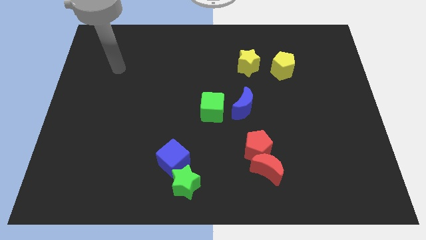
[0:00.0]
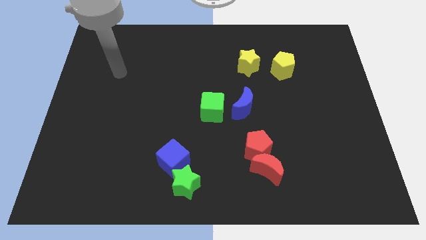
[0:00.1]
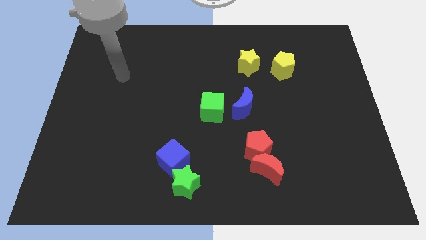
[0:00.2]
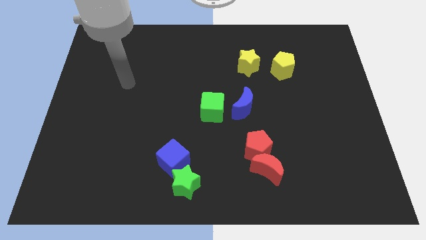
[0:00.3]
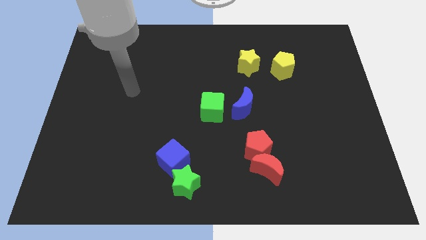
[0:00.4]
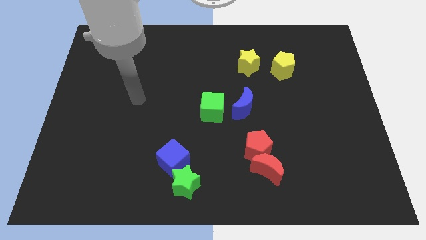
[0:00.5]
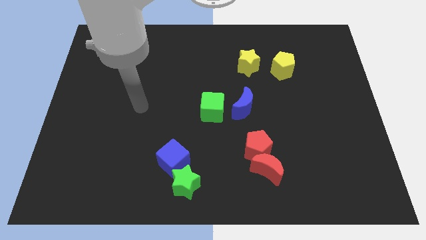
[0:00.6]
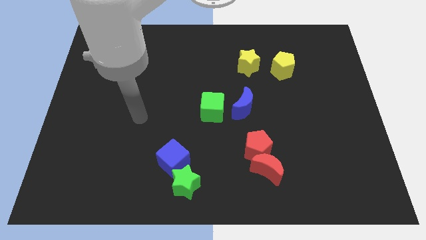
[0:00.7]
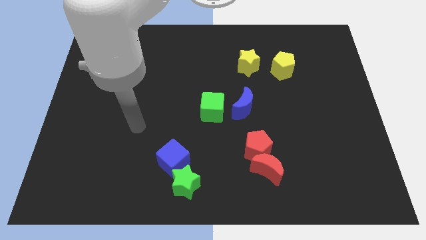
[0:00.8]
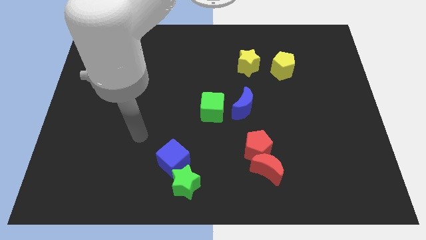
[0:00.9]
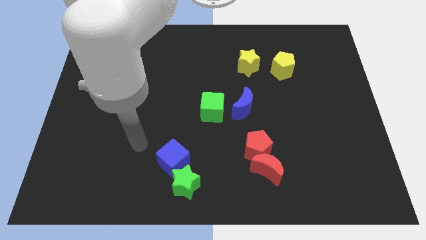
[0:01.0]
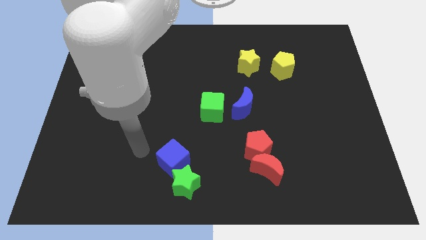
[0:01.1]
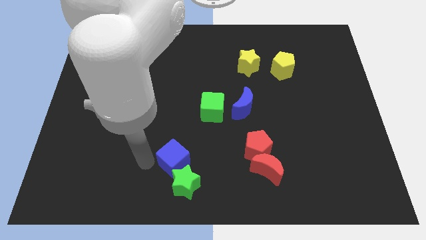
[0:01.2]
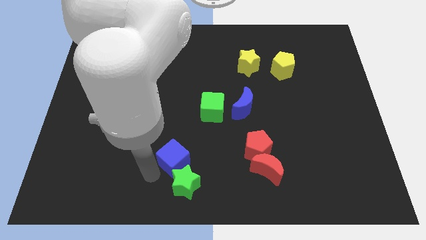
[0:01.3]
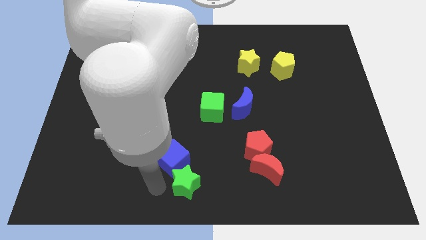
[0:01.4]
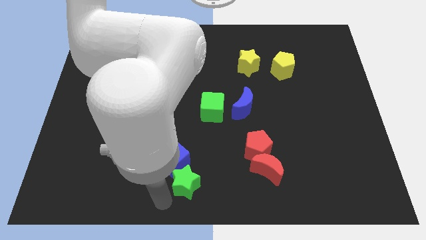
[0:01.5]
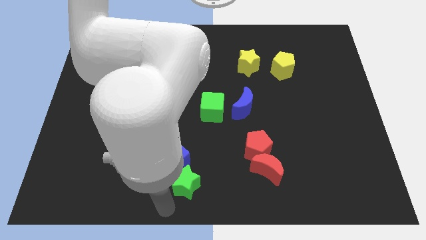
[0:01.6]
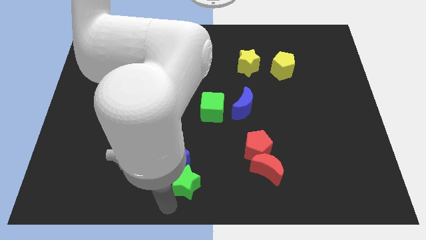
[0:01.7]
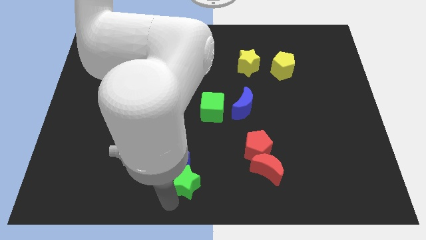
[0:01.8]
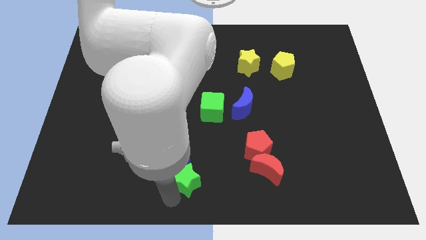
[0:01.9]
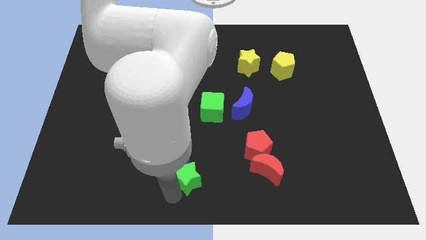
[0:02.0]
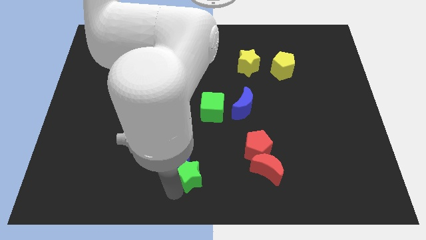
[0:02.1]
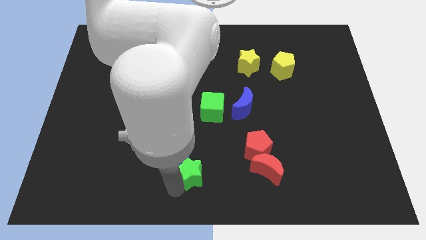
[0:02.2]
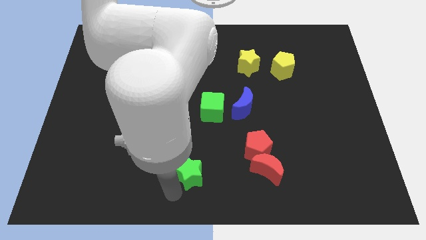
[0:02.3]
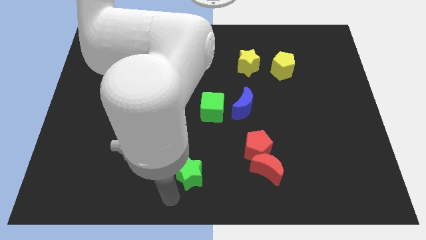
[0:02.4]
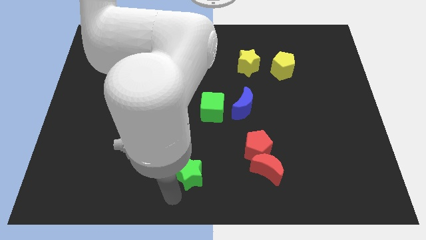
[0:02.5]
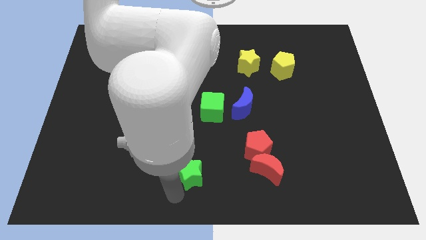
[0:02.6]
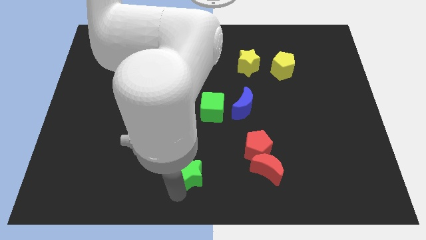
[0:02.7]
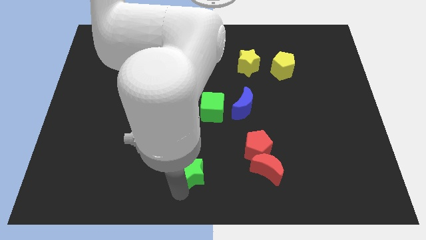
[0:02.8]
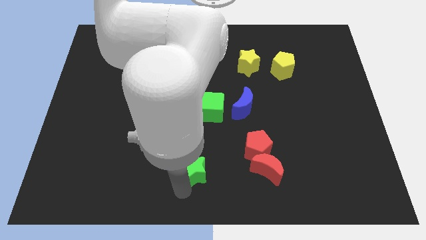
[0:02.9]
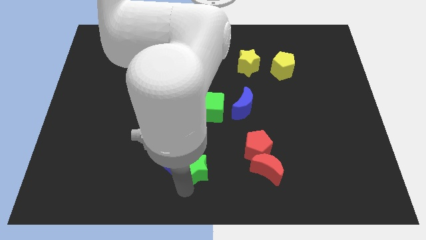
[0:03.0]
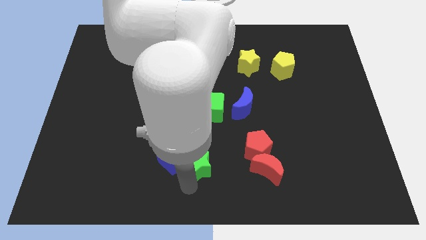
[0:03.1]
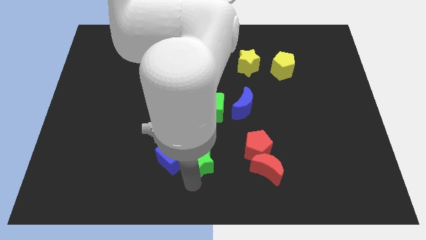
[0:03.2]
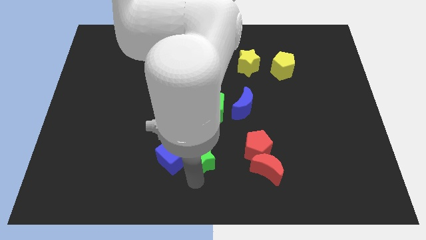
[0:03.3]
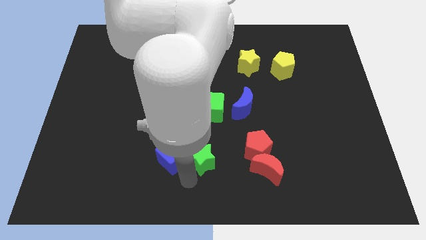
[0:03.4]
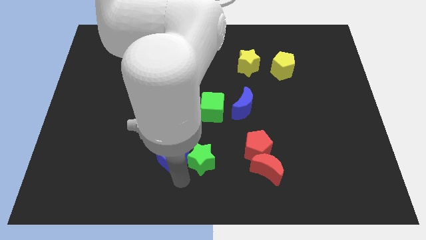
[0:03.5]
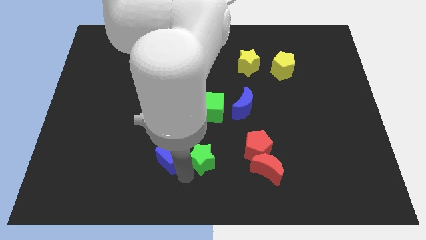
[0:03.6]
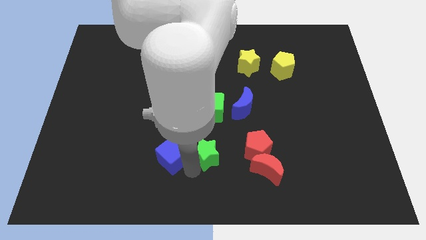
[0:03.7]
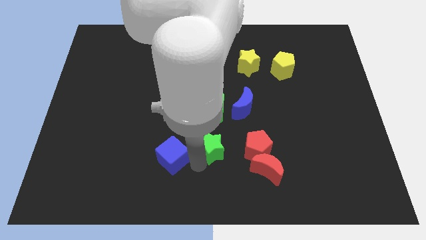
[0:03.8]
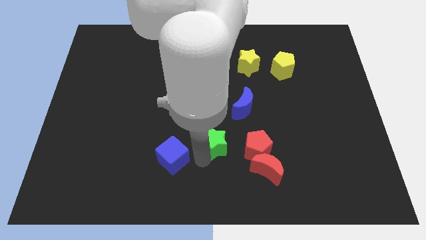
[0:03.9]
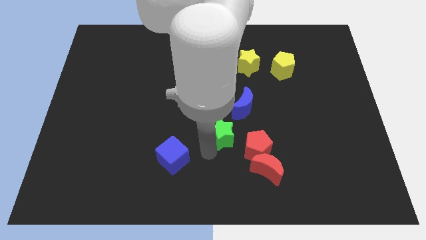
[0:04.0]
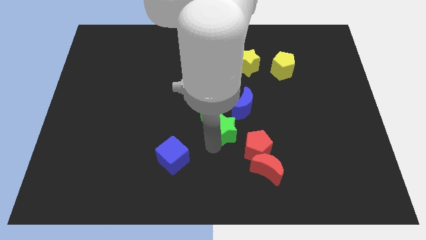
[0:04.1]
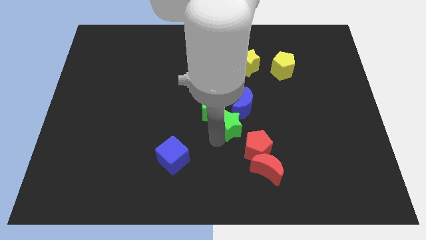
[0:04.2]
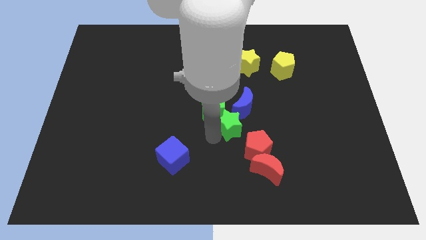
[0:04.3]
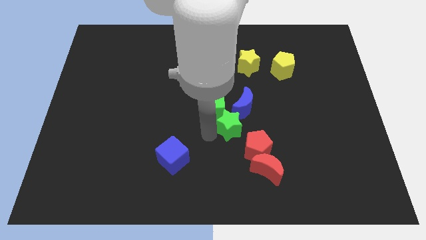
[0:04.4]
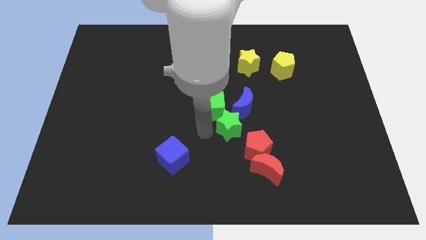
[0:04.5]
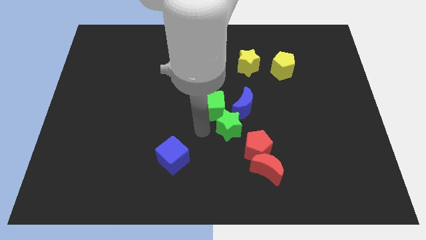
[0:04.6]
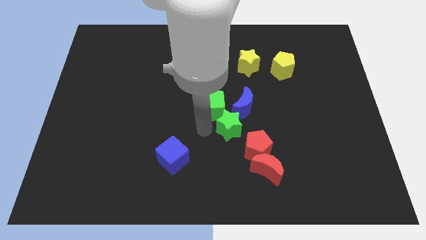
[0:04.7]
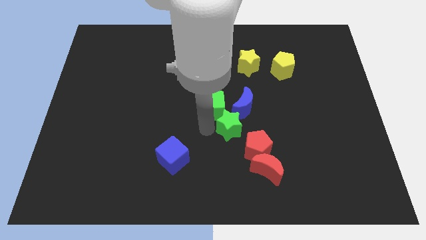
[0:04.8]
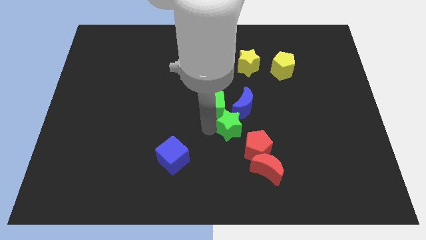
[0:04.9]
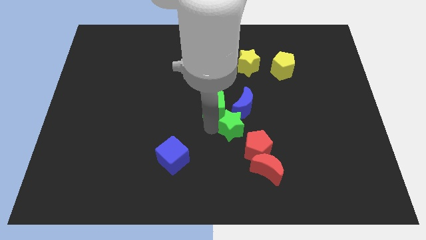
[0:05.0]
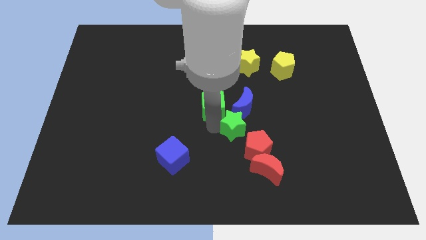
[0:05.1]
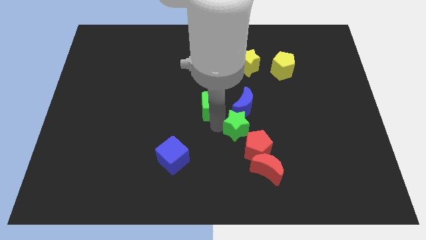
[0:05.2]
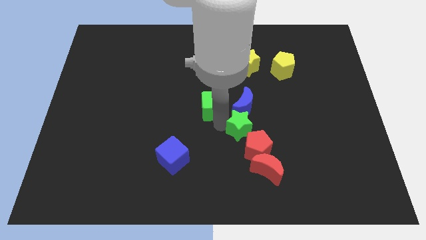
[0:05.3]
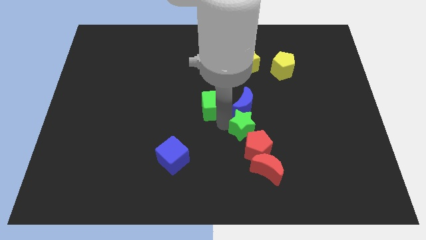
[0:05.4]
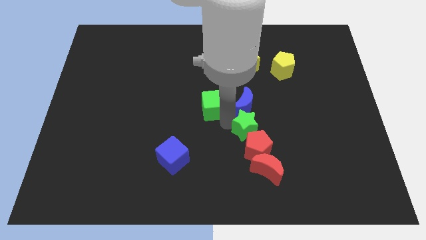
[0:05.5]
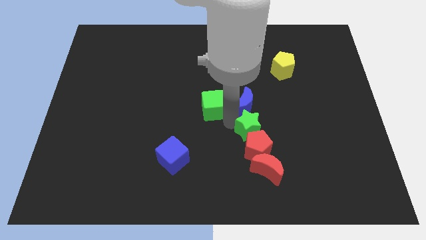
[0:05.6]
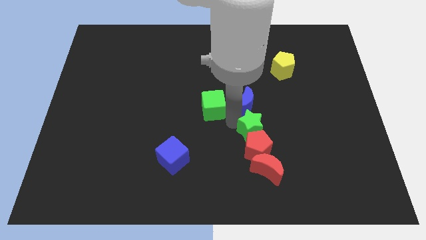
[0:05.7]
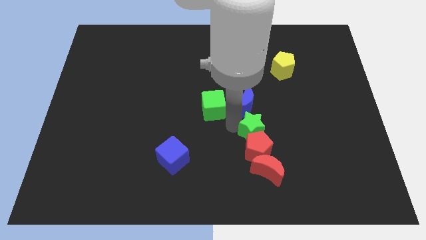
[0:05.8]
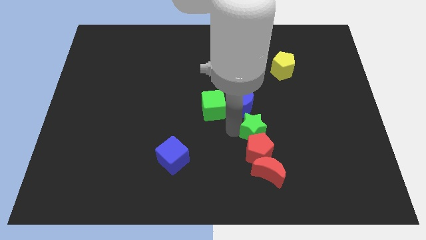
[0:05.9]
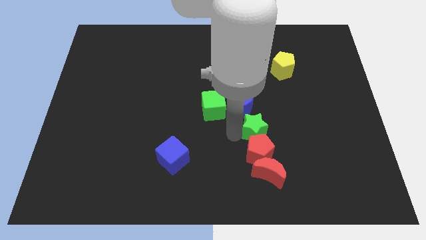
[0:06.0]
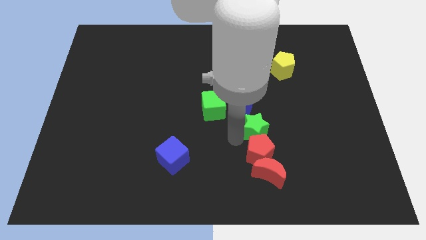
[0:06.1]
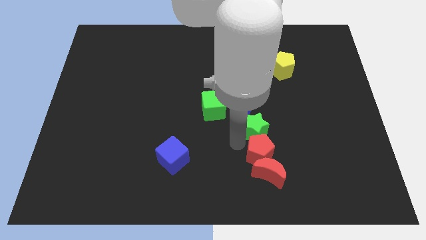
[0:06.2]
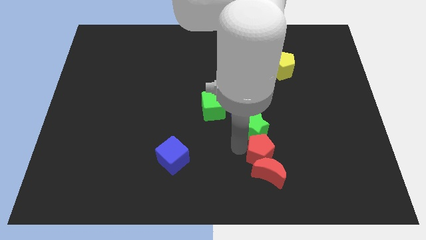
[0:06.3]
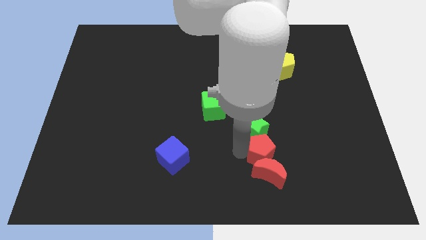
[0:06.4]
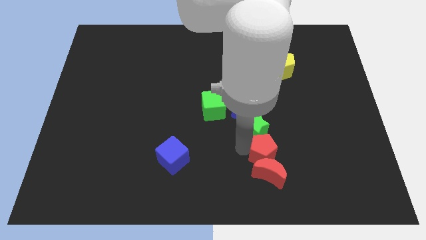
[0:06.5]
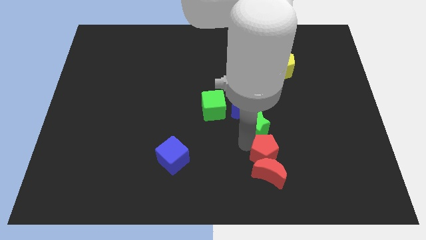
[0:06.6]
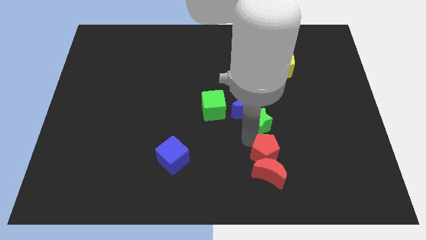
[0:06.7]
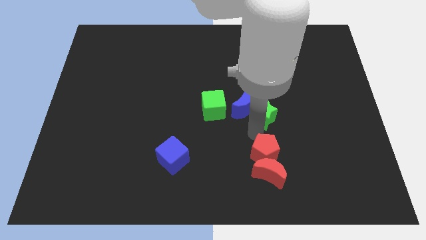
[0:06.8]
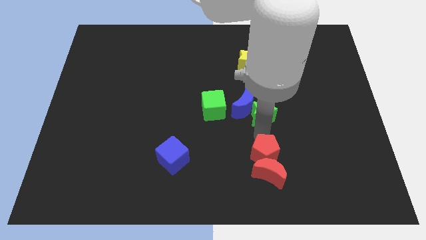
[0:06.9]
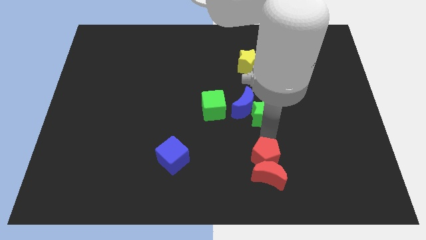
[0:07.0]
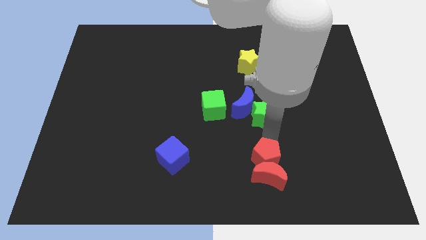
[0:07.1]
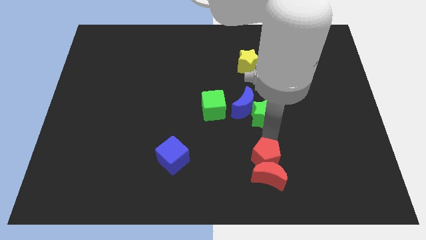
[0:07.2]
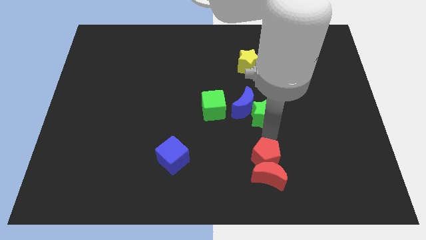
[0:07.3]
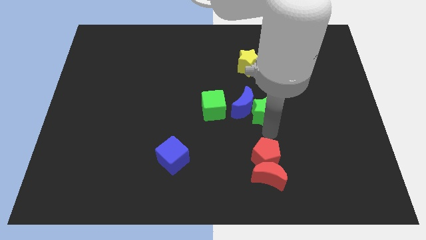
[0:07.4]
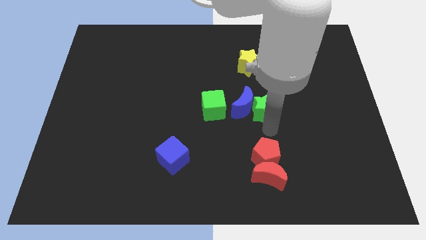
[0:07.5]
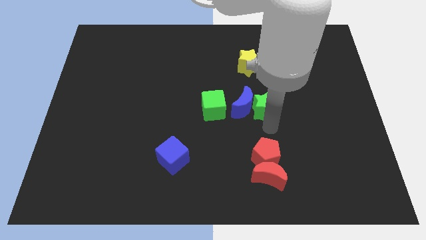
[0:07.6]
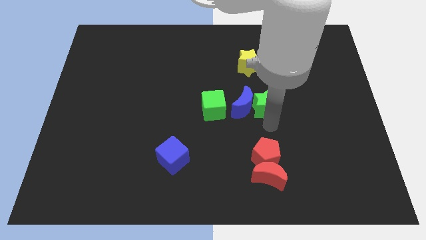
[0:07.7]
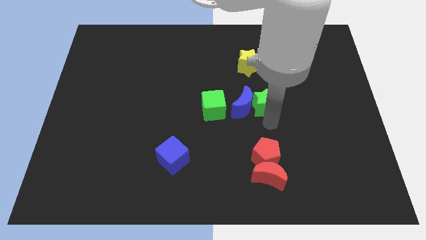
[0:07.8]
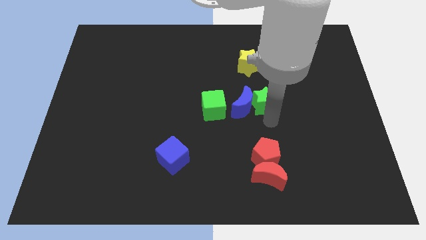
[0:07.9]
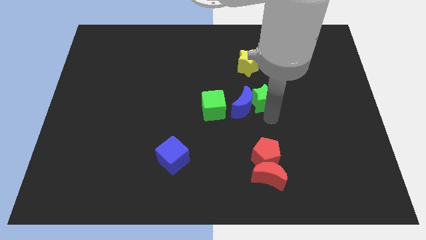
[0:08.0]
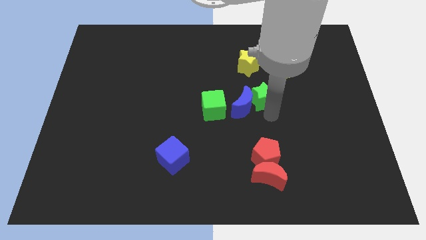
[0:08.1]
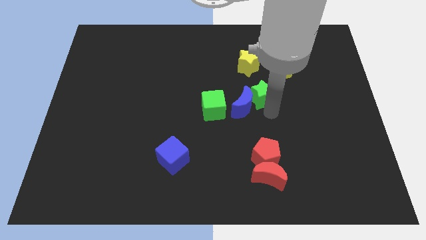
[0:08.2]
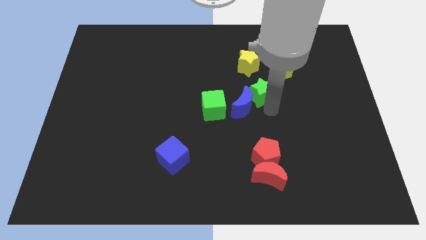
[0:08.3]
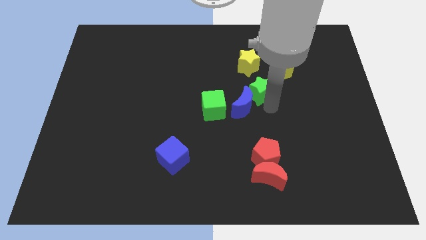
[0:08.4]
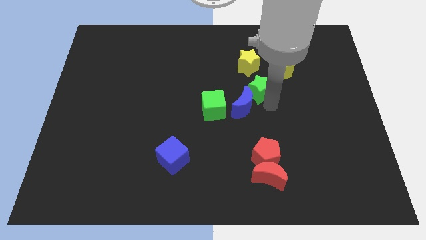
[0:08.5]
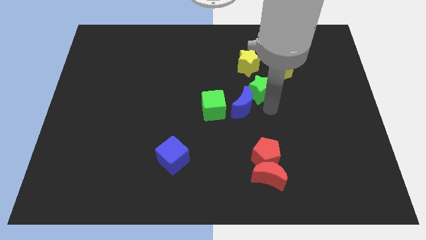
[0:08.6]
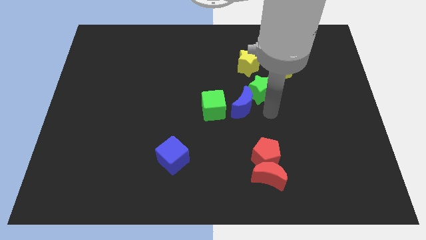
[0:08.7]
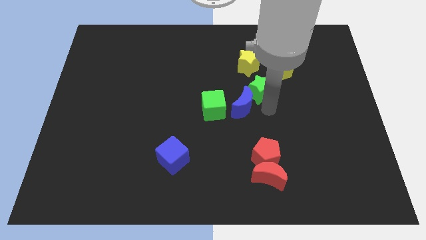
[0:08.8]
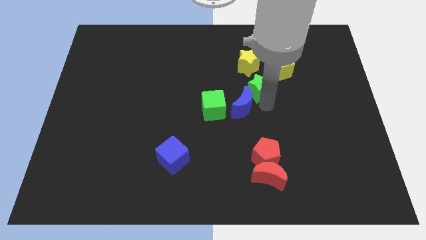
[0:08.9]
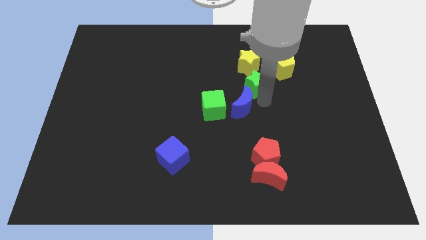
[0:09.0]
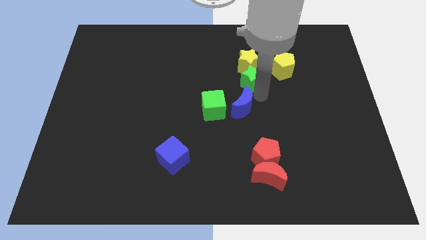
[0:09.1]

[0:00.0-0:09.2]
push the green star next to the yellow star
